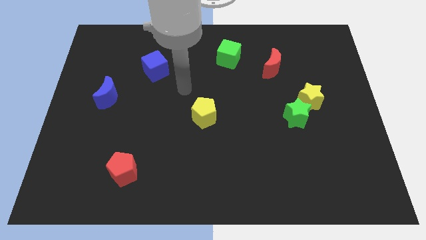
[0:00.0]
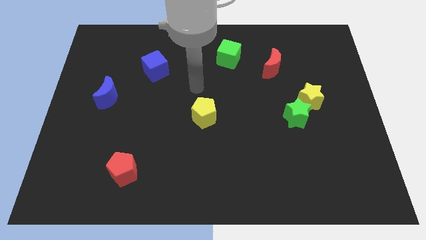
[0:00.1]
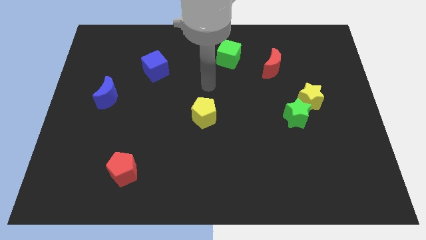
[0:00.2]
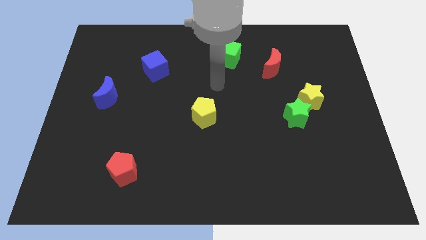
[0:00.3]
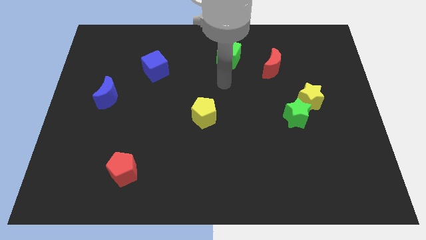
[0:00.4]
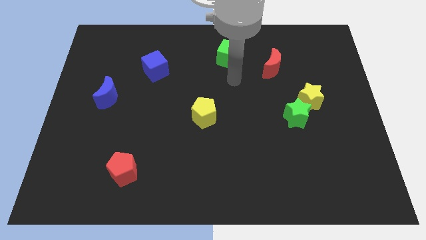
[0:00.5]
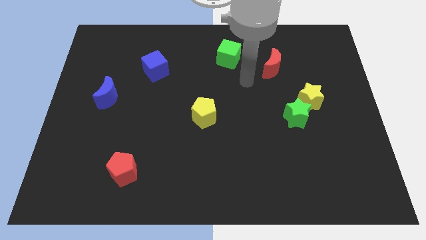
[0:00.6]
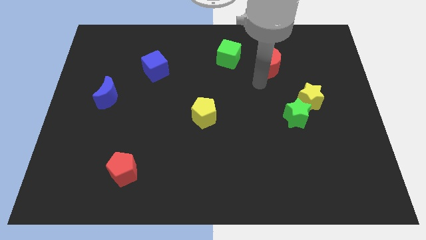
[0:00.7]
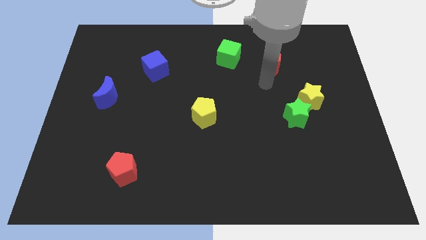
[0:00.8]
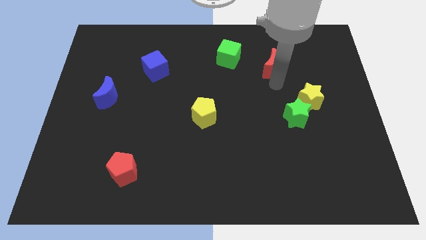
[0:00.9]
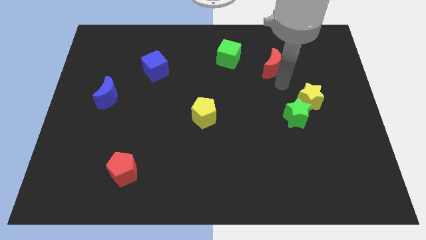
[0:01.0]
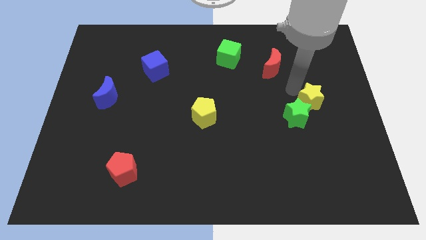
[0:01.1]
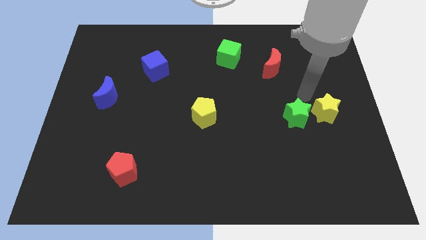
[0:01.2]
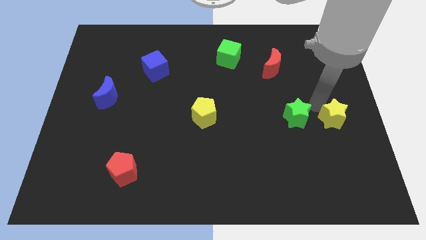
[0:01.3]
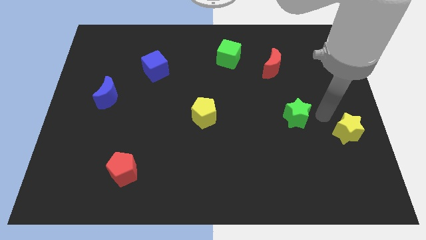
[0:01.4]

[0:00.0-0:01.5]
pull the green star apart from the yellow star

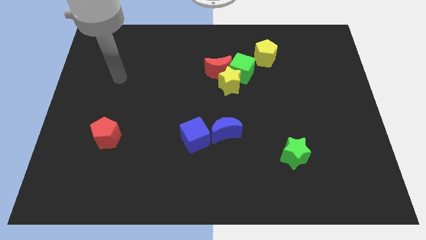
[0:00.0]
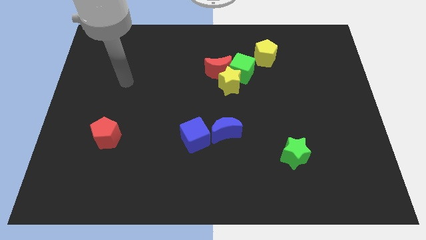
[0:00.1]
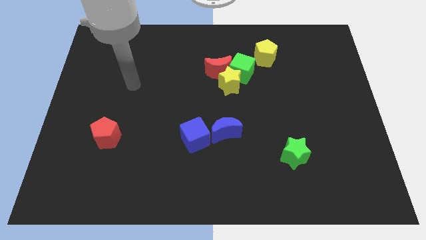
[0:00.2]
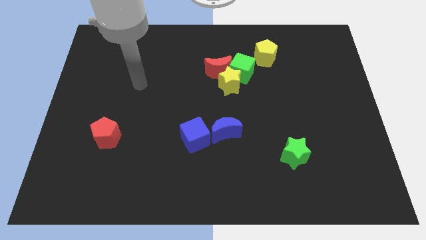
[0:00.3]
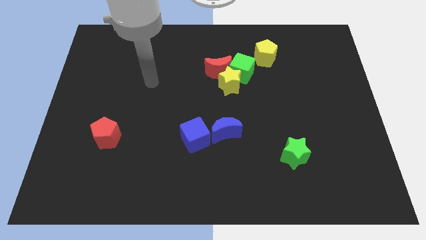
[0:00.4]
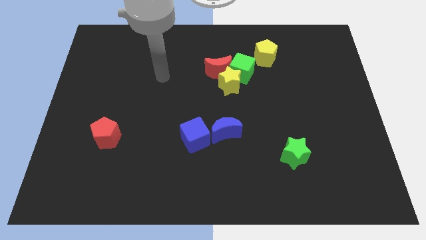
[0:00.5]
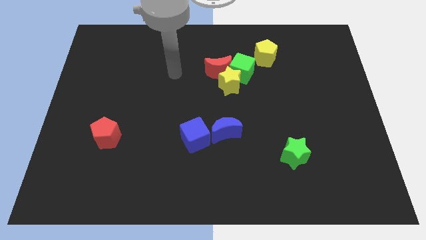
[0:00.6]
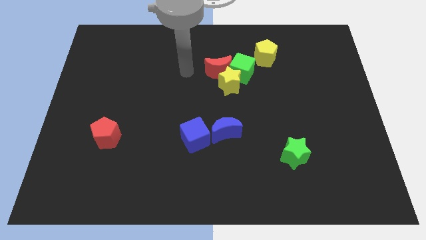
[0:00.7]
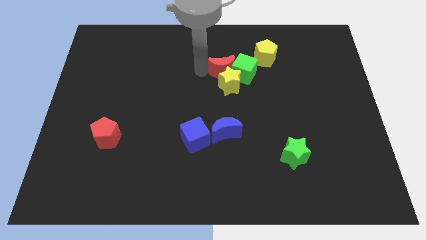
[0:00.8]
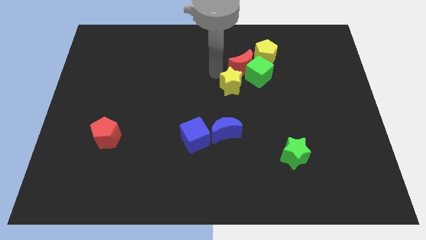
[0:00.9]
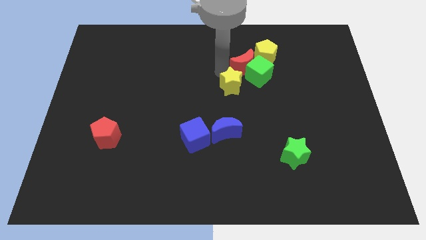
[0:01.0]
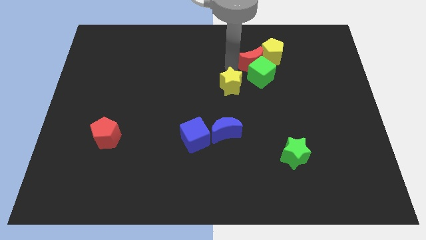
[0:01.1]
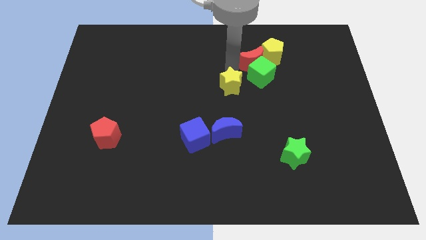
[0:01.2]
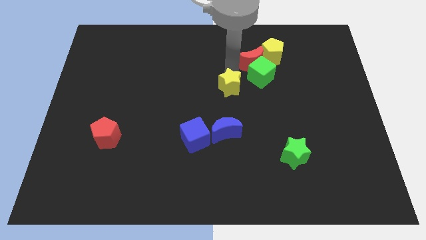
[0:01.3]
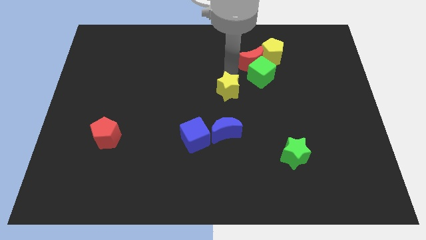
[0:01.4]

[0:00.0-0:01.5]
move the yellow star away from the red moon and green cube

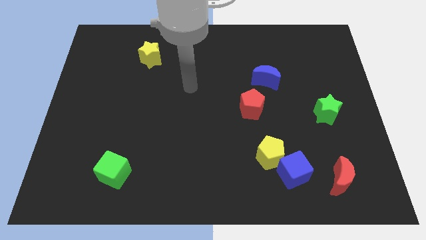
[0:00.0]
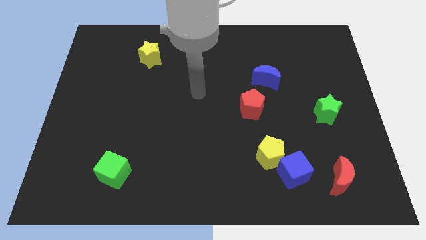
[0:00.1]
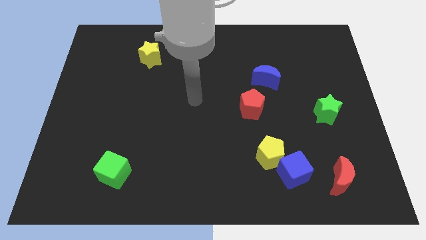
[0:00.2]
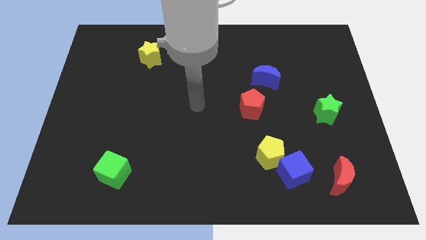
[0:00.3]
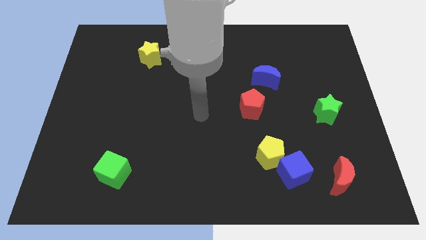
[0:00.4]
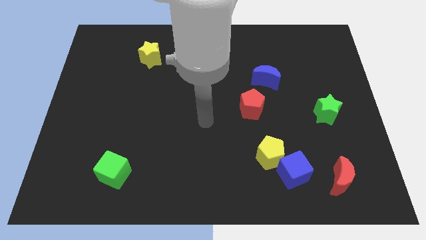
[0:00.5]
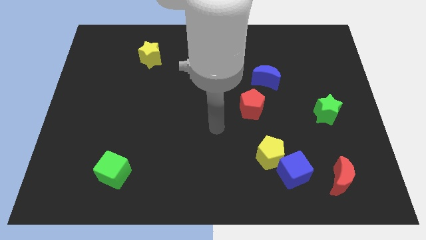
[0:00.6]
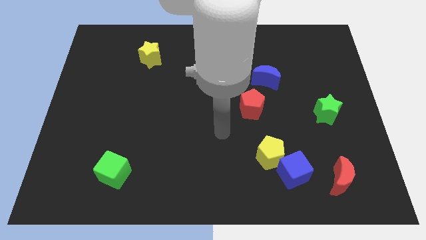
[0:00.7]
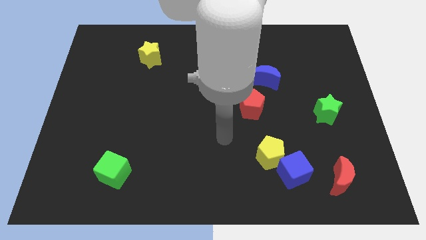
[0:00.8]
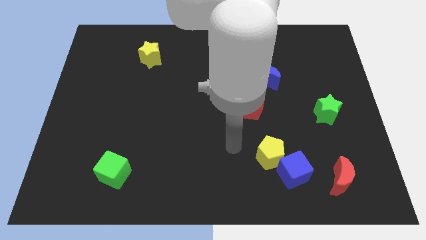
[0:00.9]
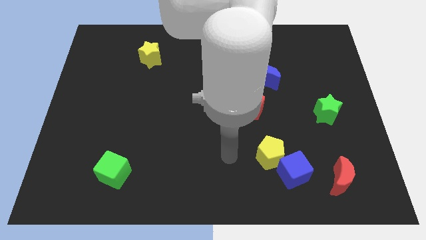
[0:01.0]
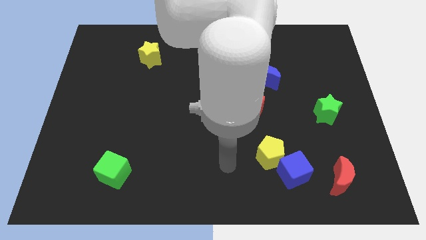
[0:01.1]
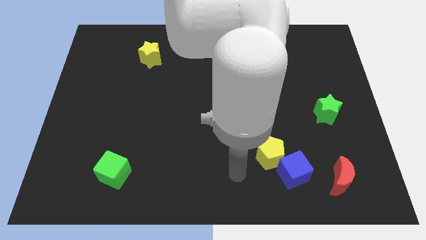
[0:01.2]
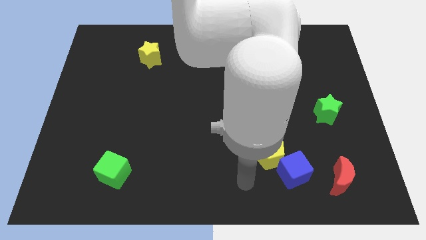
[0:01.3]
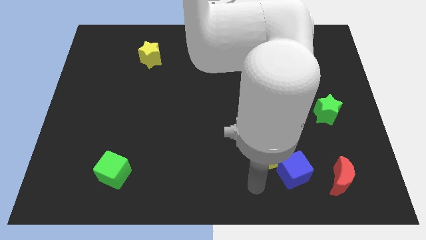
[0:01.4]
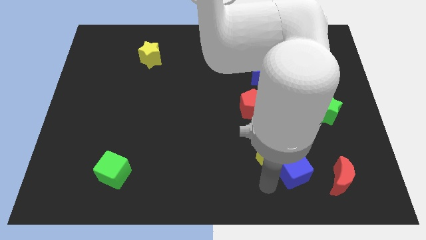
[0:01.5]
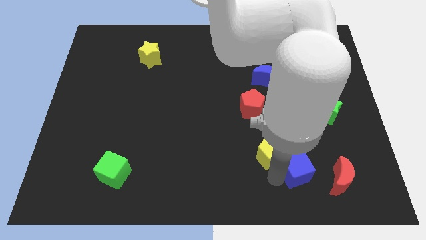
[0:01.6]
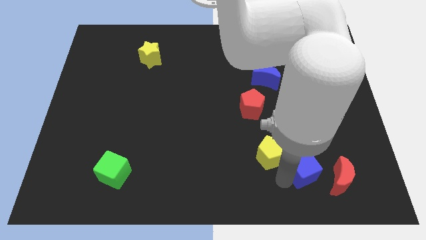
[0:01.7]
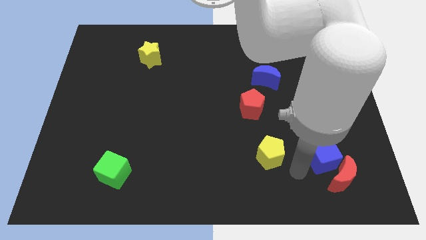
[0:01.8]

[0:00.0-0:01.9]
separate the yellow pentagon from the blue cube

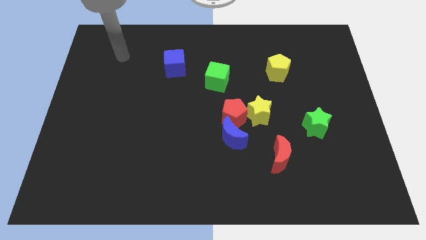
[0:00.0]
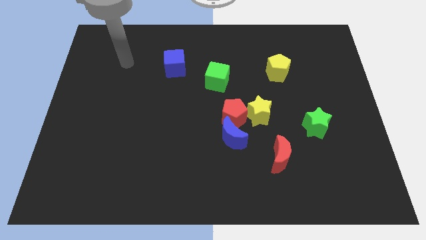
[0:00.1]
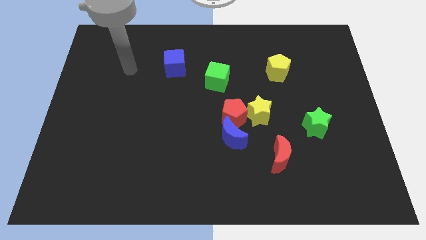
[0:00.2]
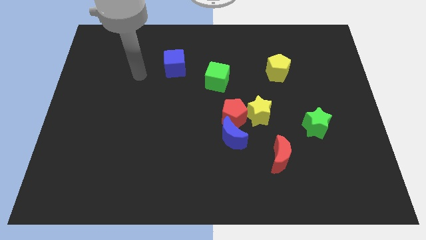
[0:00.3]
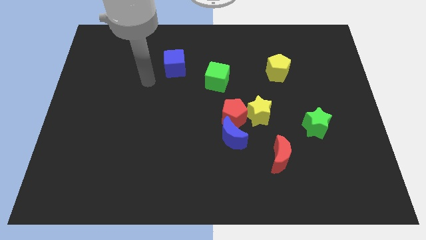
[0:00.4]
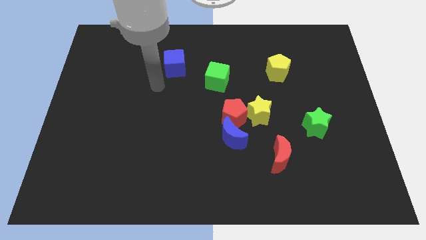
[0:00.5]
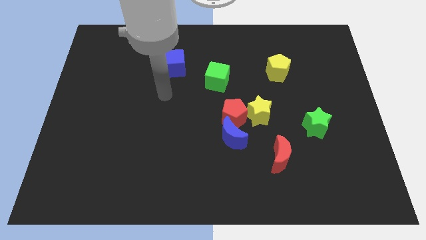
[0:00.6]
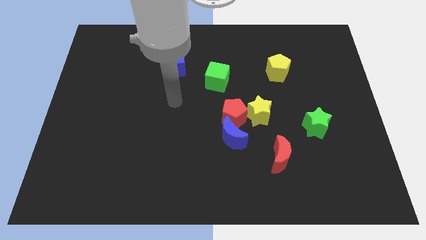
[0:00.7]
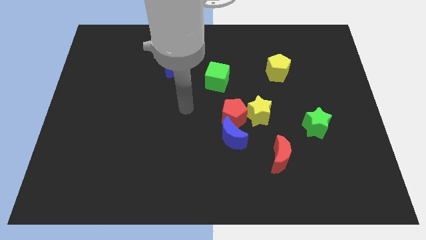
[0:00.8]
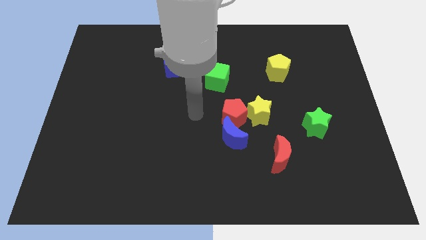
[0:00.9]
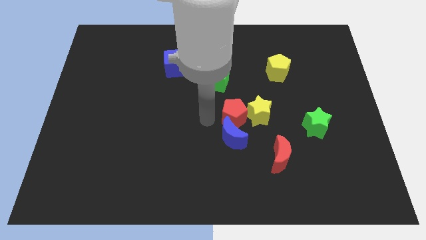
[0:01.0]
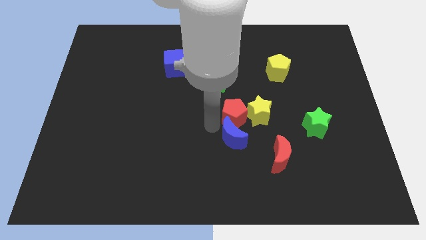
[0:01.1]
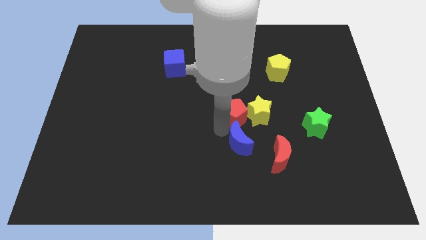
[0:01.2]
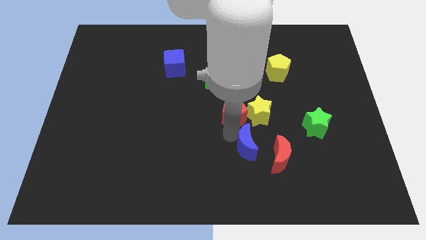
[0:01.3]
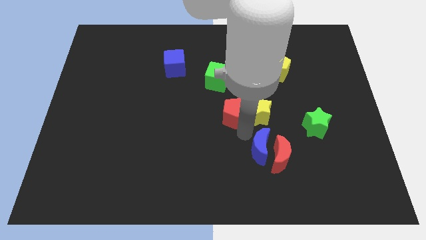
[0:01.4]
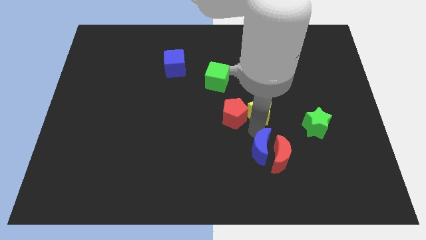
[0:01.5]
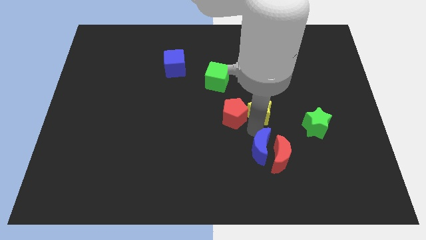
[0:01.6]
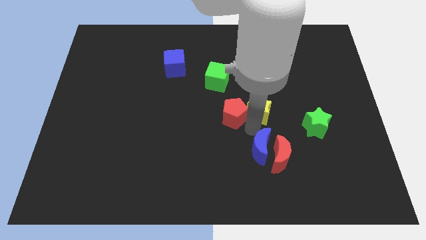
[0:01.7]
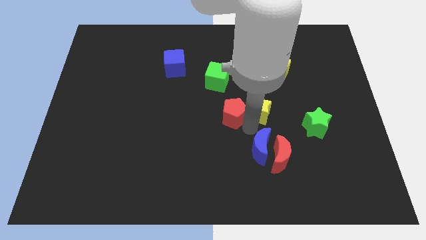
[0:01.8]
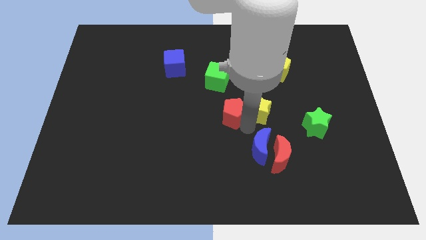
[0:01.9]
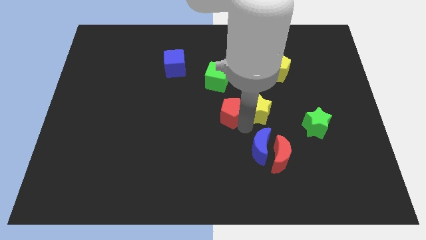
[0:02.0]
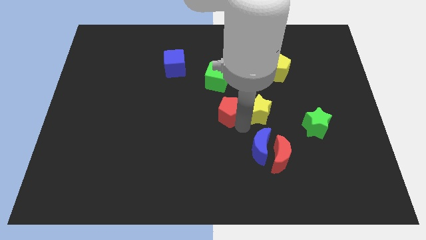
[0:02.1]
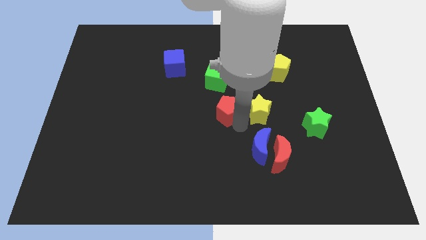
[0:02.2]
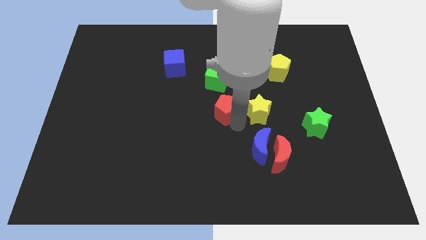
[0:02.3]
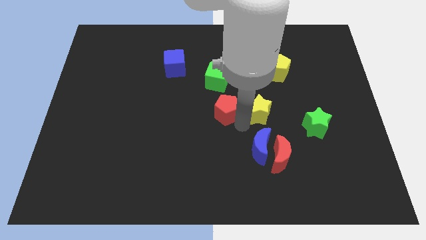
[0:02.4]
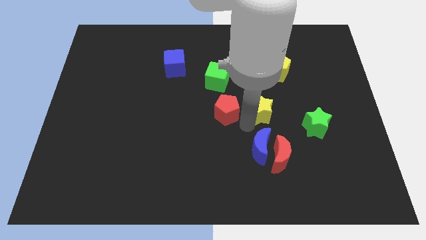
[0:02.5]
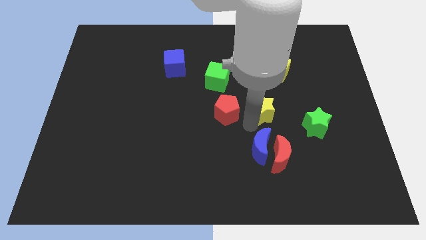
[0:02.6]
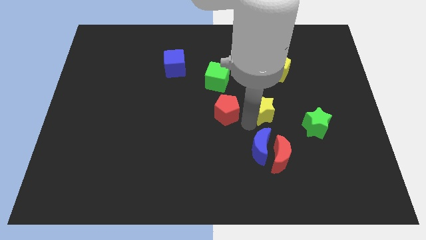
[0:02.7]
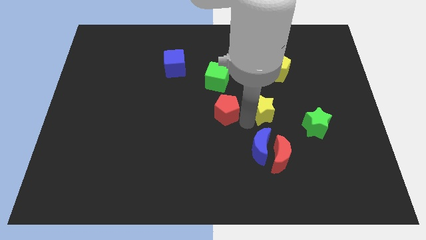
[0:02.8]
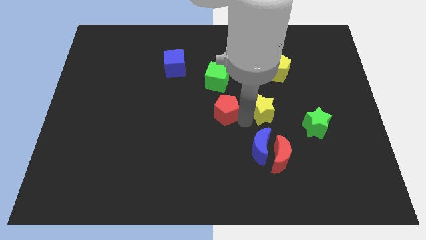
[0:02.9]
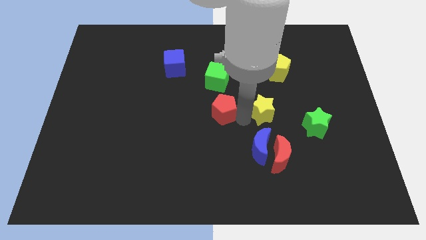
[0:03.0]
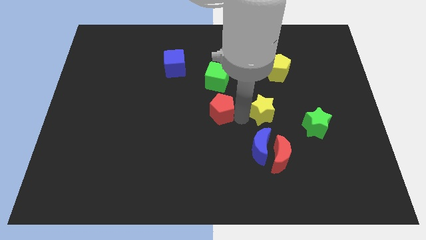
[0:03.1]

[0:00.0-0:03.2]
move the red pentagon away from the blue moon and yellow star

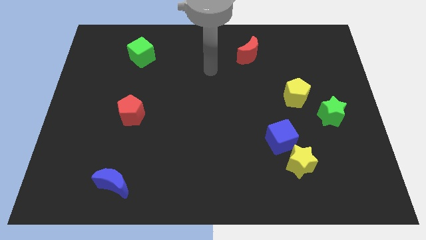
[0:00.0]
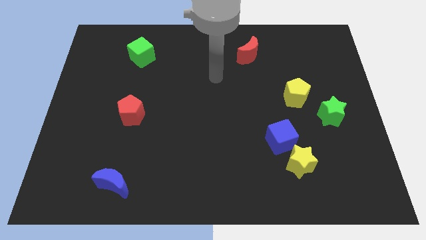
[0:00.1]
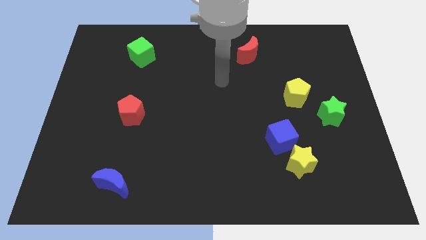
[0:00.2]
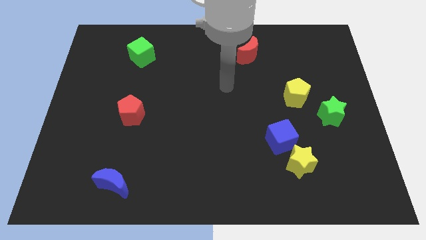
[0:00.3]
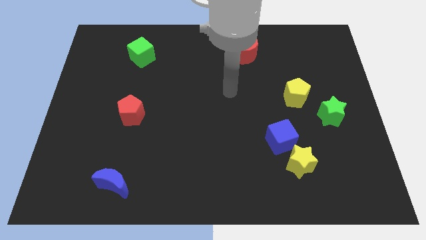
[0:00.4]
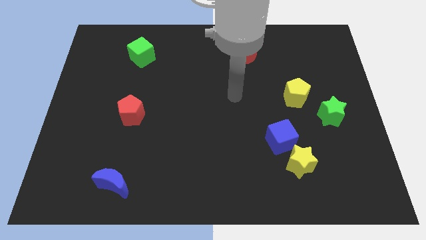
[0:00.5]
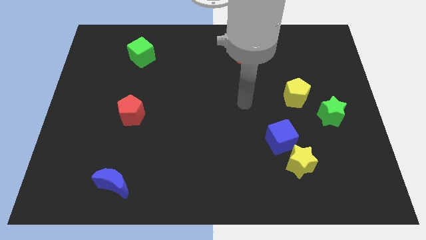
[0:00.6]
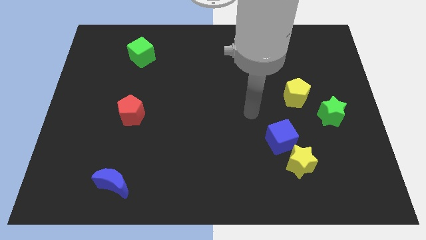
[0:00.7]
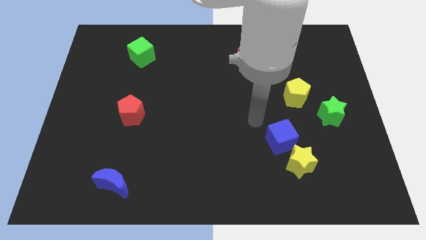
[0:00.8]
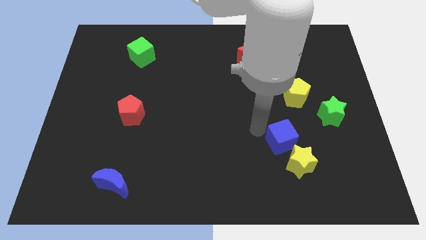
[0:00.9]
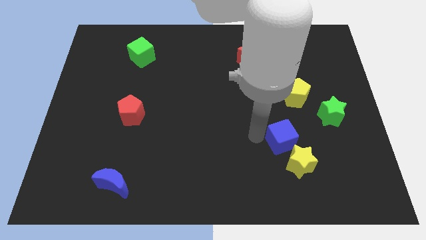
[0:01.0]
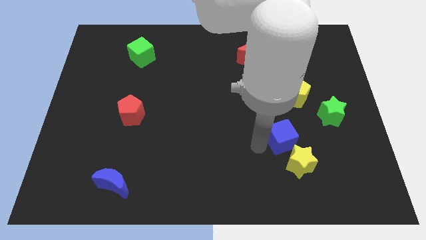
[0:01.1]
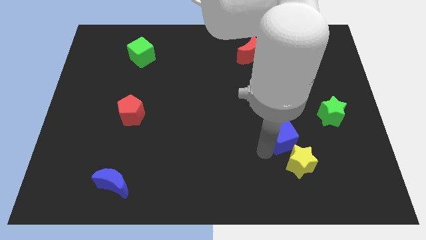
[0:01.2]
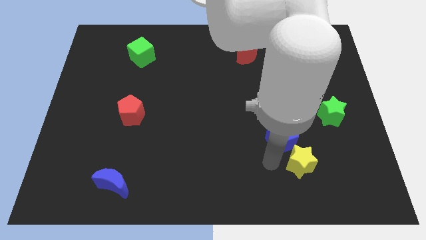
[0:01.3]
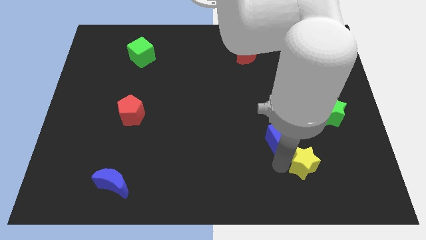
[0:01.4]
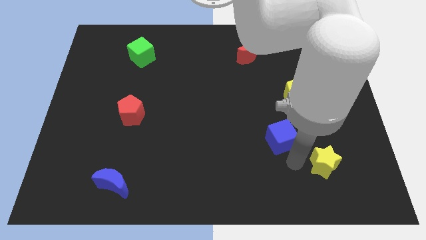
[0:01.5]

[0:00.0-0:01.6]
pull the blue cube apart from the yellow star
